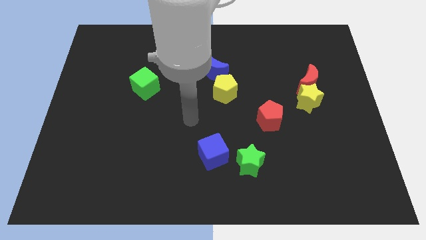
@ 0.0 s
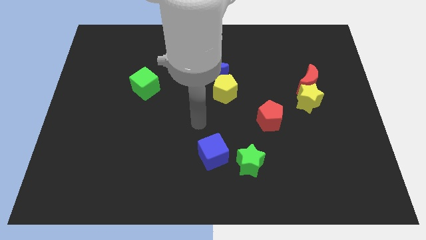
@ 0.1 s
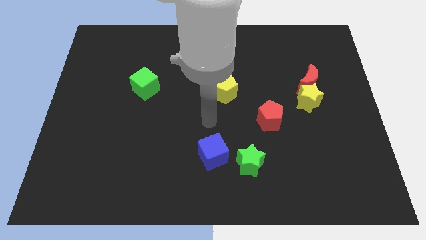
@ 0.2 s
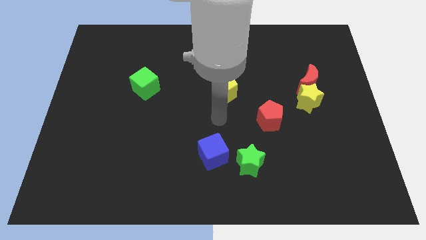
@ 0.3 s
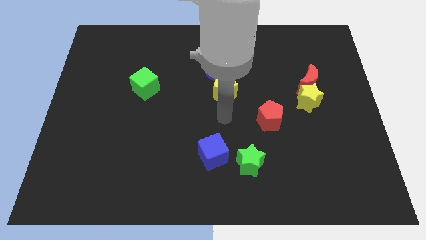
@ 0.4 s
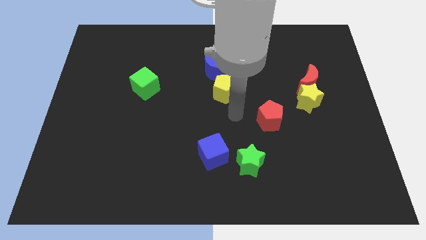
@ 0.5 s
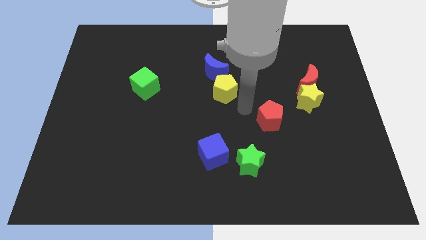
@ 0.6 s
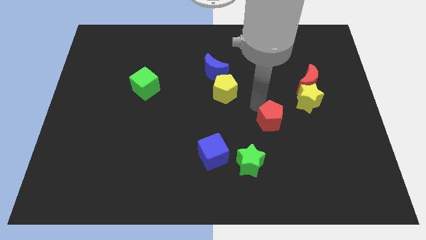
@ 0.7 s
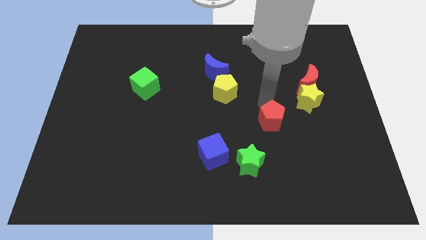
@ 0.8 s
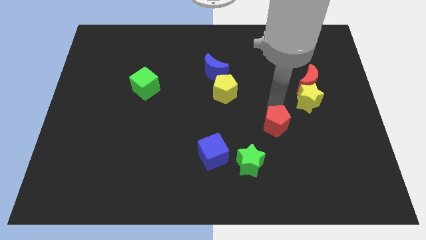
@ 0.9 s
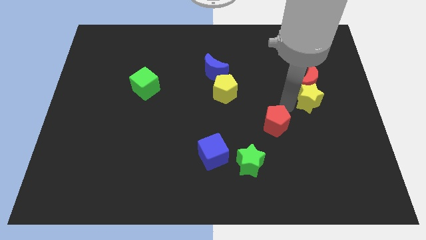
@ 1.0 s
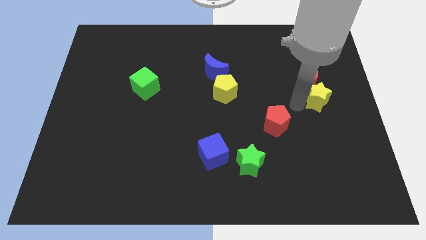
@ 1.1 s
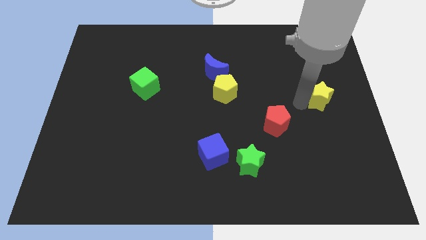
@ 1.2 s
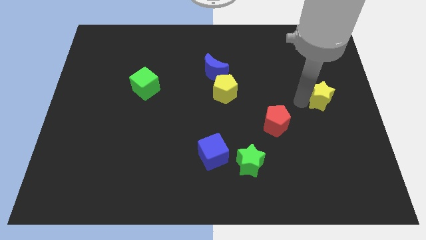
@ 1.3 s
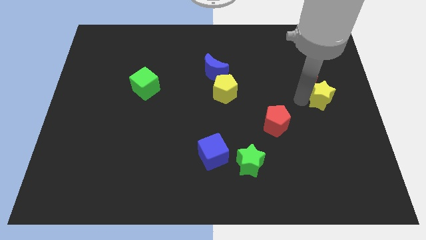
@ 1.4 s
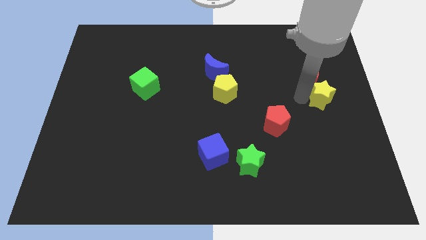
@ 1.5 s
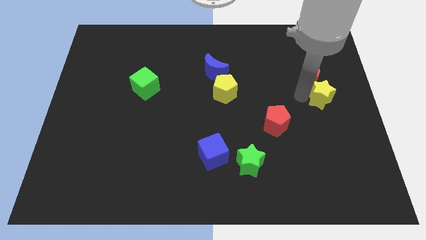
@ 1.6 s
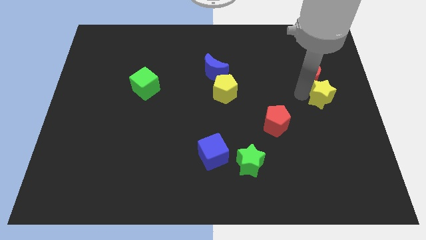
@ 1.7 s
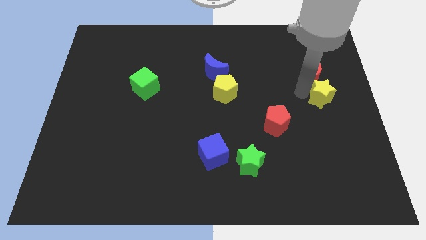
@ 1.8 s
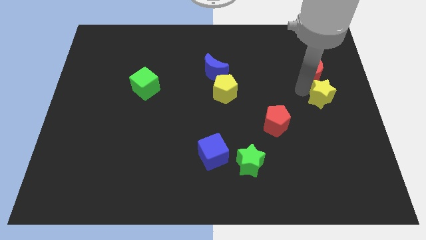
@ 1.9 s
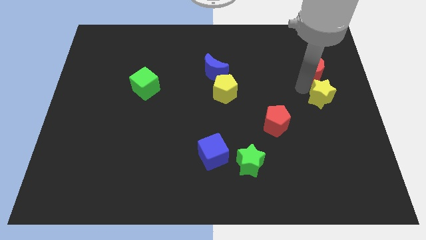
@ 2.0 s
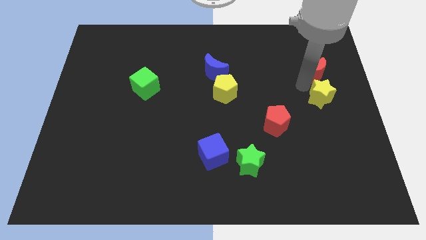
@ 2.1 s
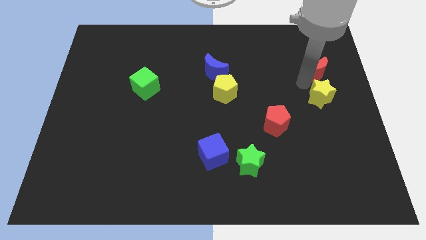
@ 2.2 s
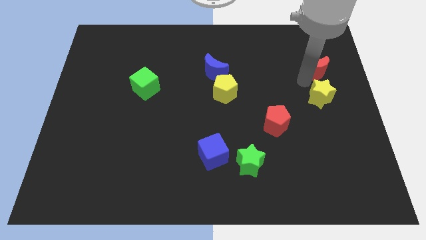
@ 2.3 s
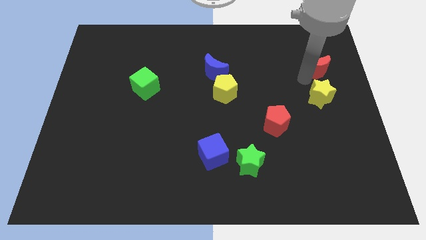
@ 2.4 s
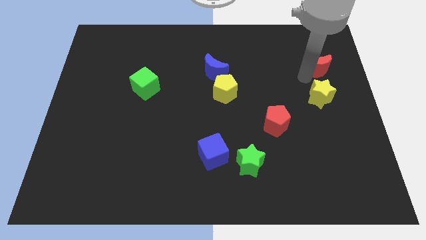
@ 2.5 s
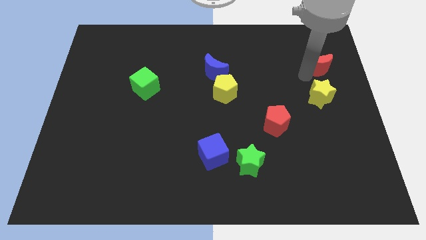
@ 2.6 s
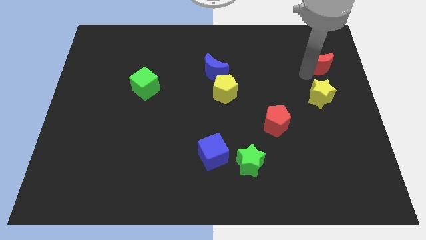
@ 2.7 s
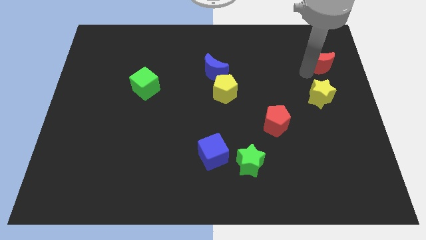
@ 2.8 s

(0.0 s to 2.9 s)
separate the red moon from the yellow star

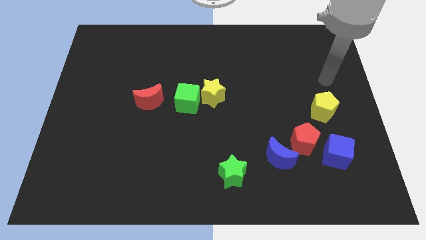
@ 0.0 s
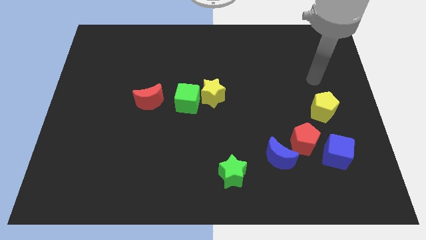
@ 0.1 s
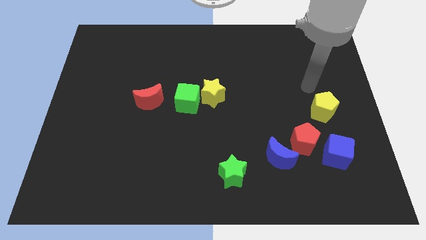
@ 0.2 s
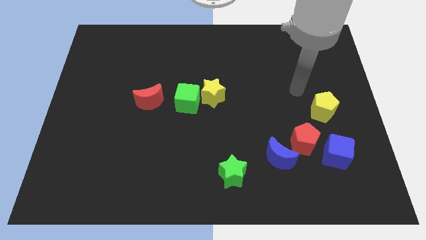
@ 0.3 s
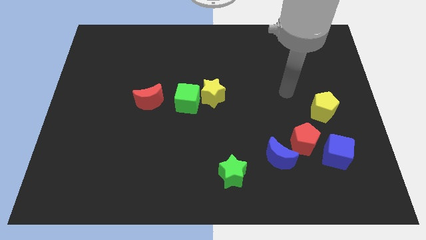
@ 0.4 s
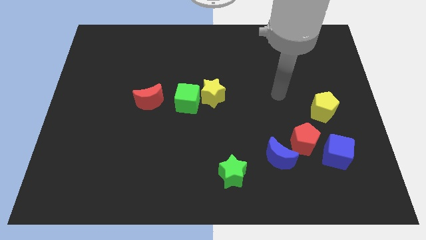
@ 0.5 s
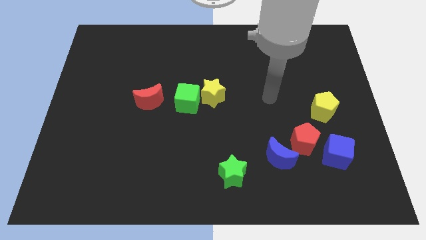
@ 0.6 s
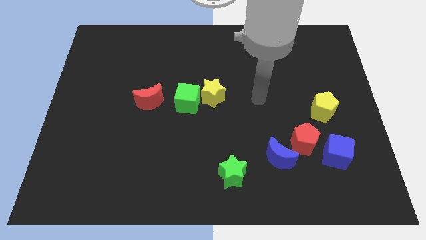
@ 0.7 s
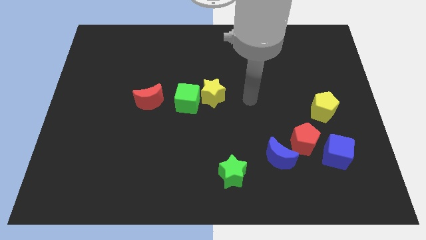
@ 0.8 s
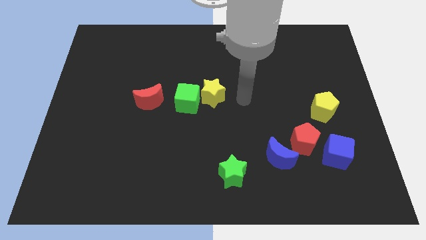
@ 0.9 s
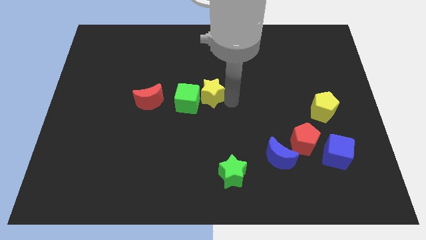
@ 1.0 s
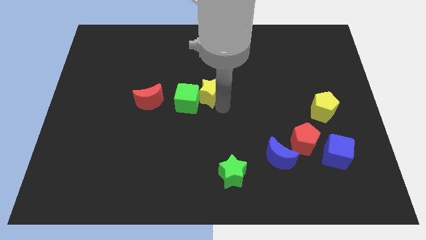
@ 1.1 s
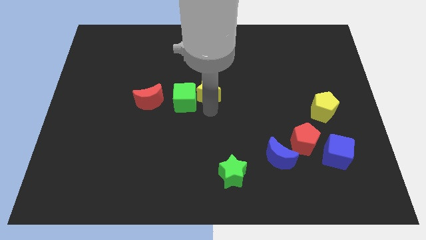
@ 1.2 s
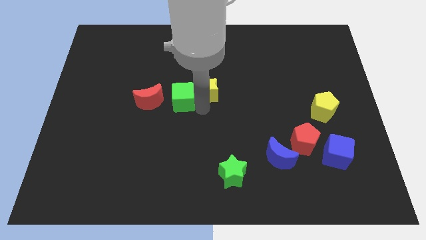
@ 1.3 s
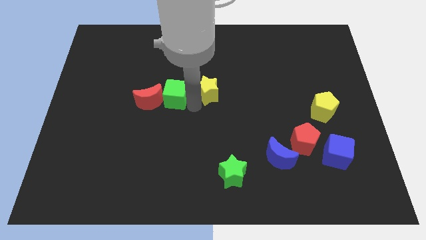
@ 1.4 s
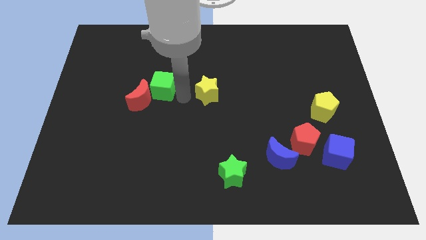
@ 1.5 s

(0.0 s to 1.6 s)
move the yellow star away from the green cube

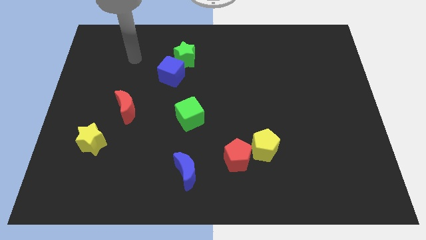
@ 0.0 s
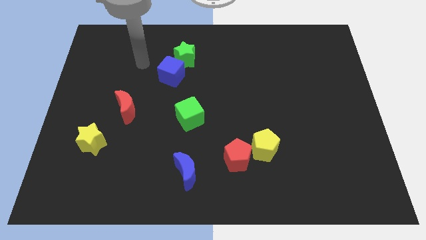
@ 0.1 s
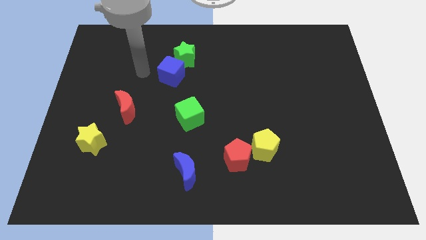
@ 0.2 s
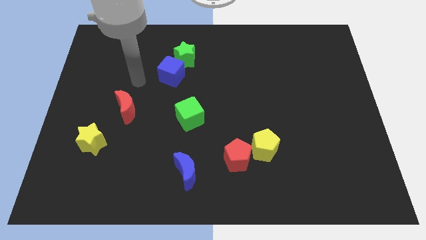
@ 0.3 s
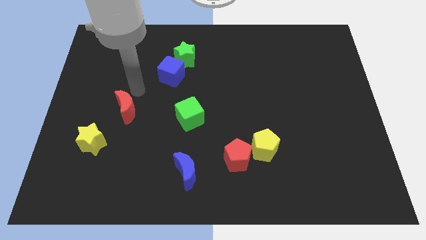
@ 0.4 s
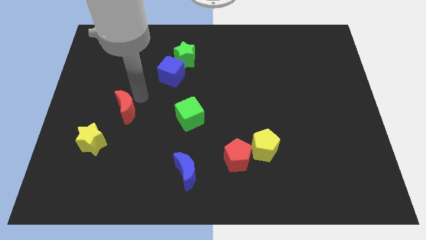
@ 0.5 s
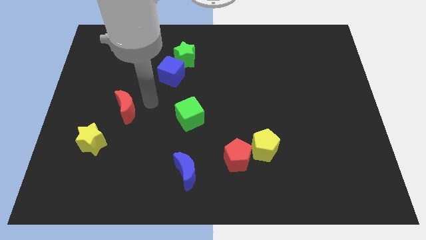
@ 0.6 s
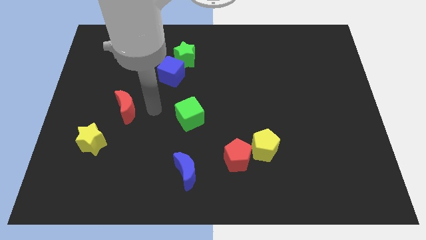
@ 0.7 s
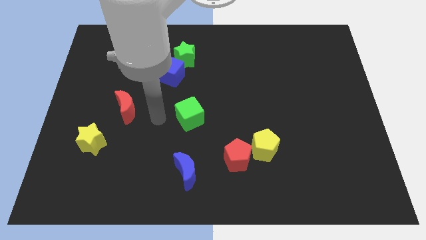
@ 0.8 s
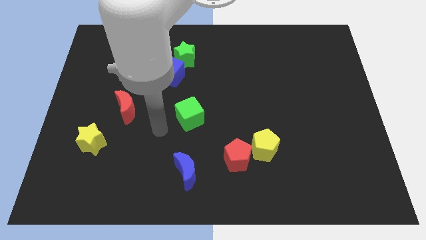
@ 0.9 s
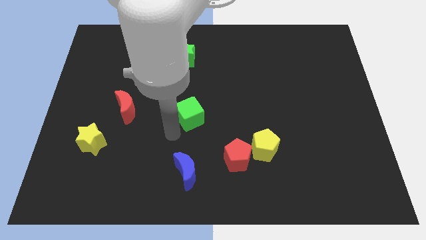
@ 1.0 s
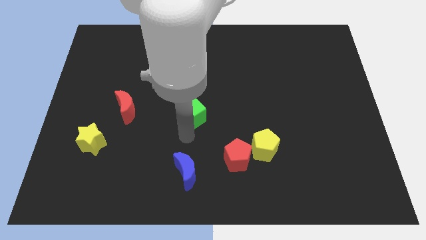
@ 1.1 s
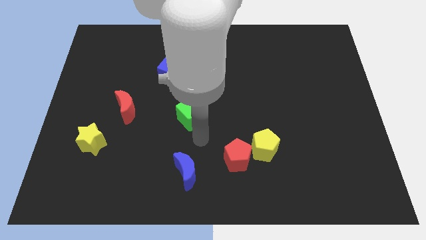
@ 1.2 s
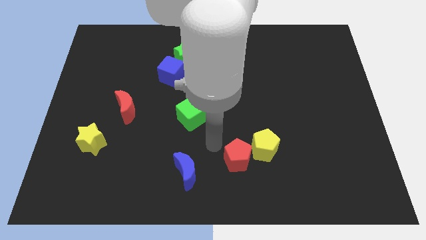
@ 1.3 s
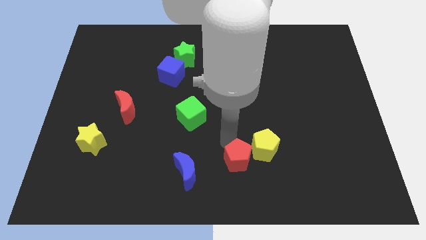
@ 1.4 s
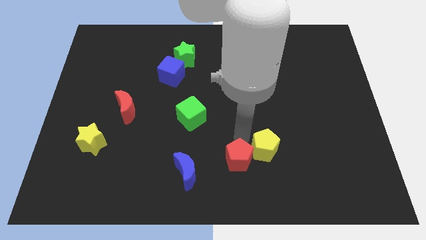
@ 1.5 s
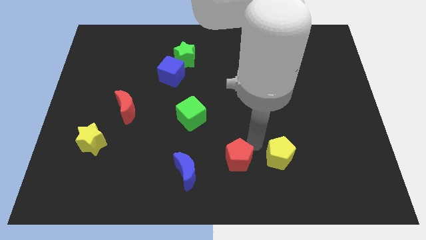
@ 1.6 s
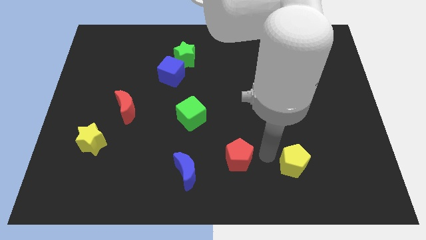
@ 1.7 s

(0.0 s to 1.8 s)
pull the red pentagon apart from the yellow pentagon

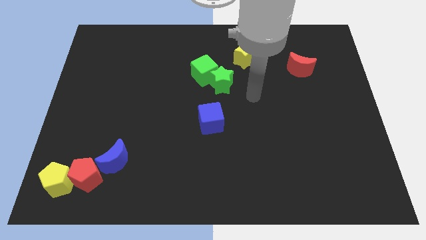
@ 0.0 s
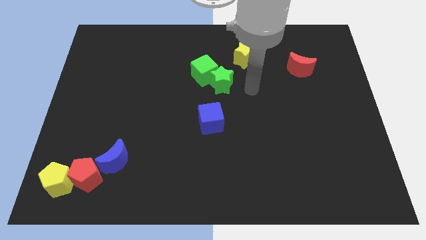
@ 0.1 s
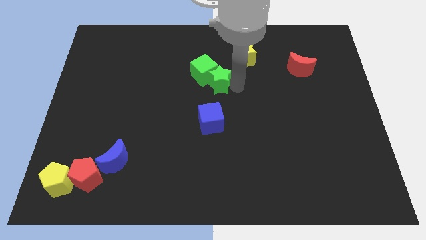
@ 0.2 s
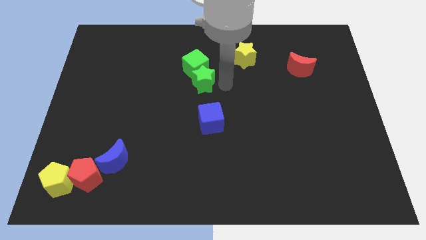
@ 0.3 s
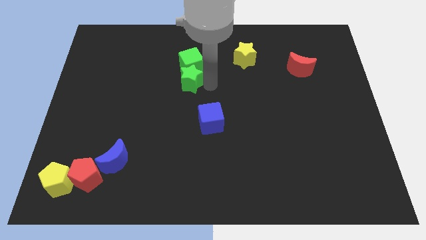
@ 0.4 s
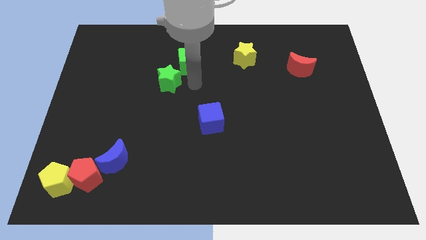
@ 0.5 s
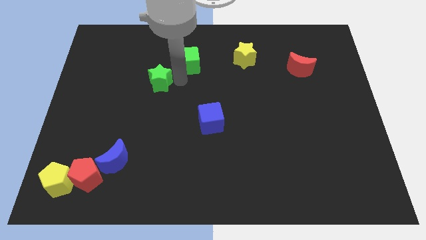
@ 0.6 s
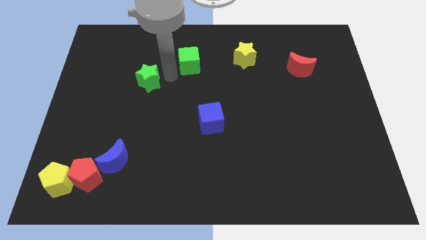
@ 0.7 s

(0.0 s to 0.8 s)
move the green cube away from the green star

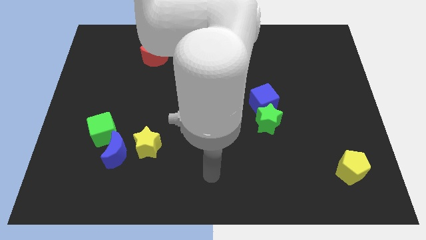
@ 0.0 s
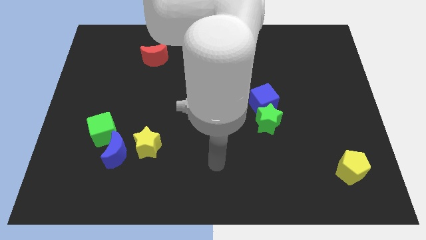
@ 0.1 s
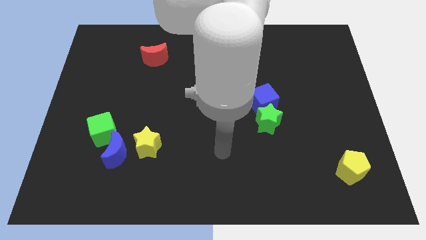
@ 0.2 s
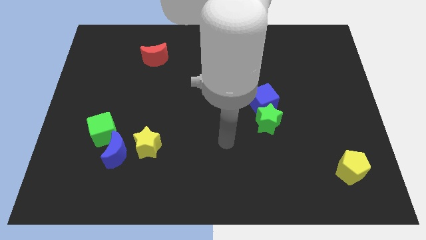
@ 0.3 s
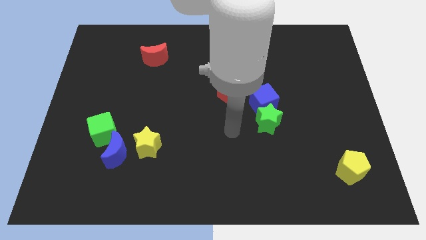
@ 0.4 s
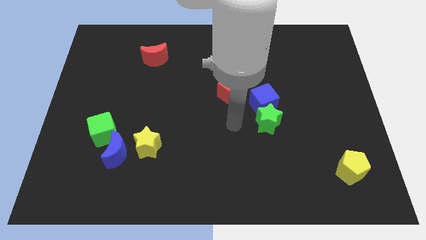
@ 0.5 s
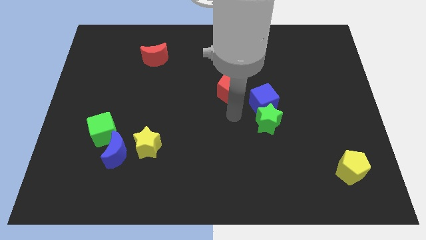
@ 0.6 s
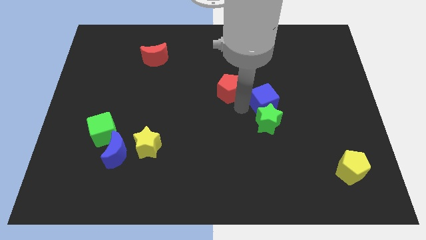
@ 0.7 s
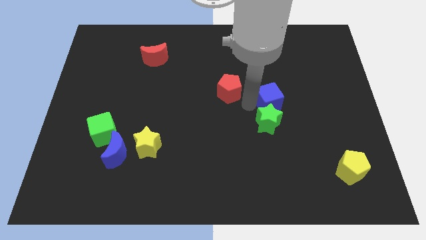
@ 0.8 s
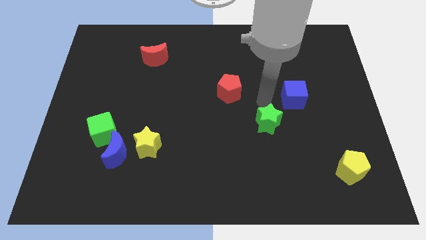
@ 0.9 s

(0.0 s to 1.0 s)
pull the green star apart from the blue cube

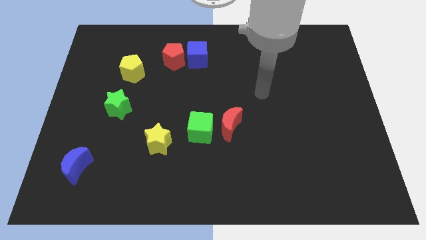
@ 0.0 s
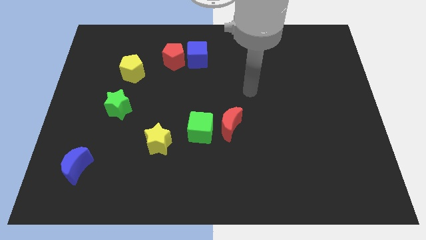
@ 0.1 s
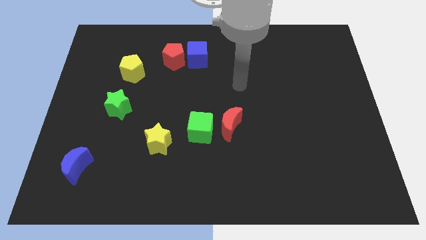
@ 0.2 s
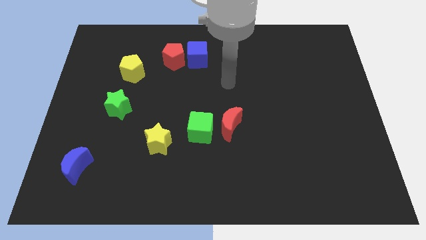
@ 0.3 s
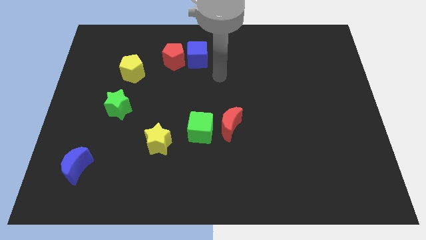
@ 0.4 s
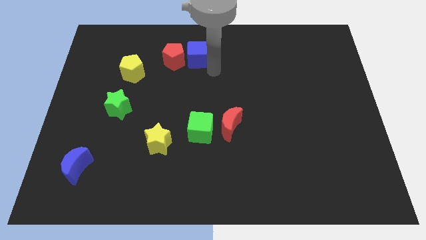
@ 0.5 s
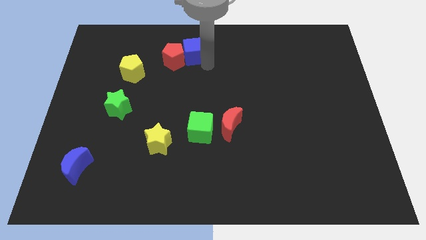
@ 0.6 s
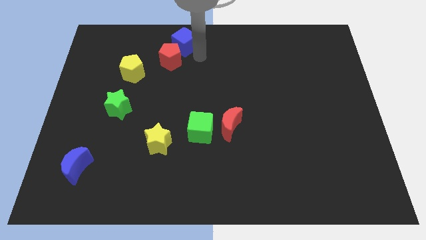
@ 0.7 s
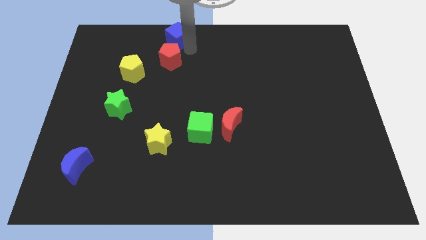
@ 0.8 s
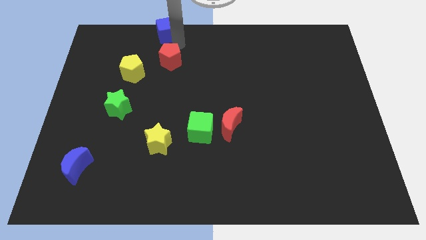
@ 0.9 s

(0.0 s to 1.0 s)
pull the red pentagon apart from the blue cube

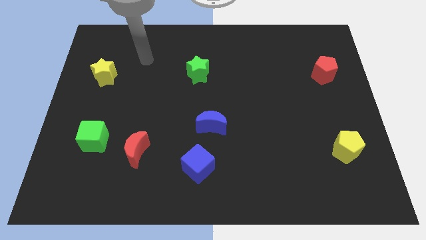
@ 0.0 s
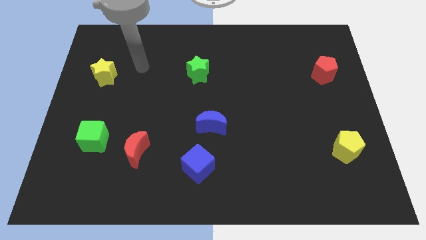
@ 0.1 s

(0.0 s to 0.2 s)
separate the red moon from the green cube
